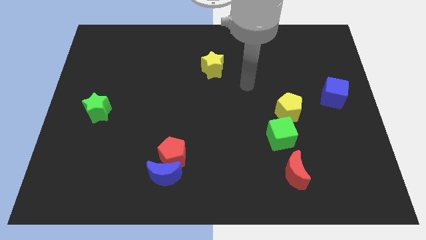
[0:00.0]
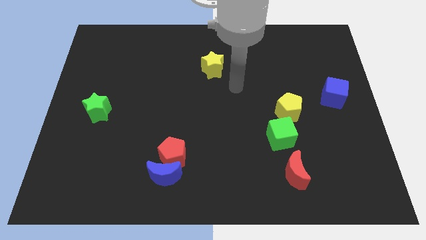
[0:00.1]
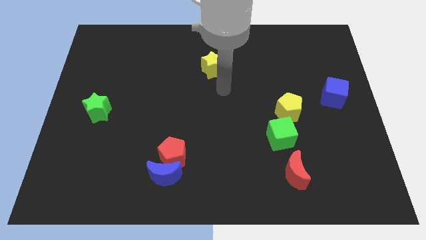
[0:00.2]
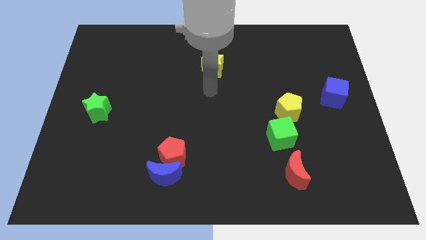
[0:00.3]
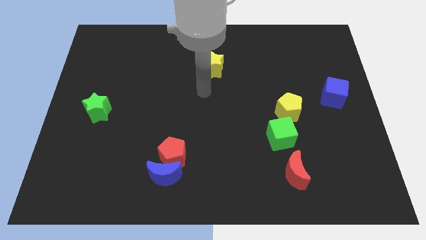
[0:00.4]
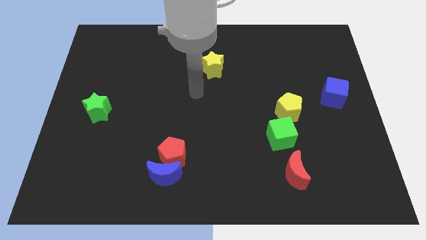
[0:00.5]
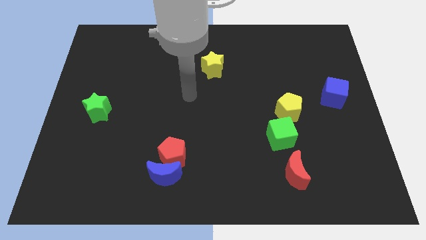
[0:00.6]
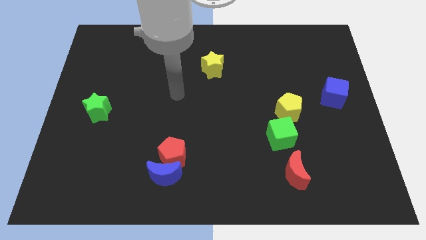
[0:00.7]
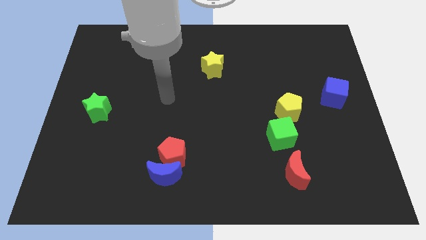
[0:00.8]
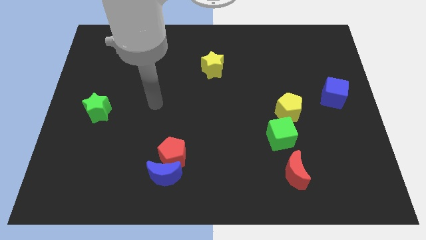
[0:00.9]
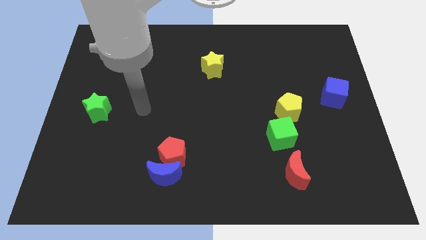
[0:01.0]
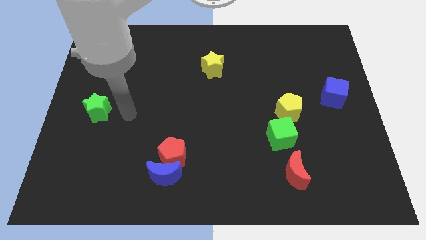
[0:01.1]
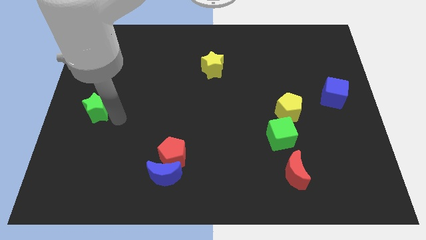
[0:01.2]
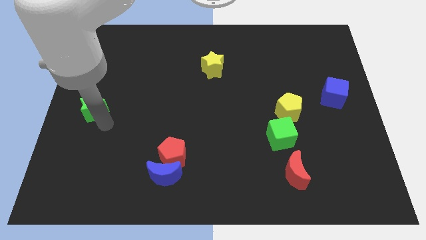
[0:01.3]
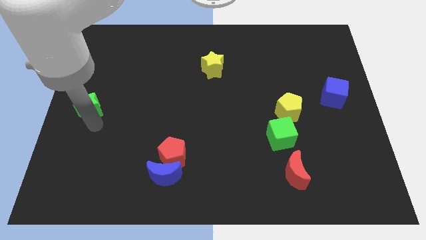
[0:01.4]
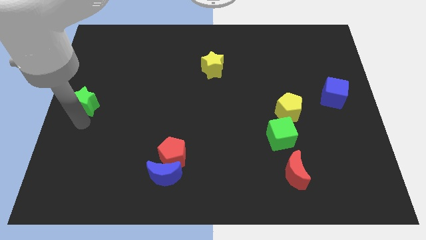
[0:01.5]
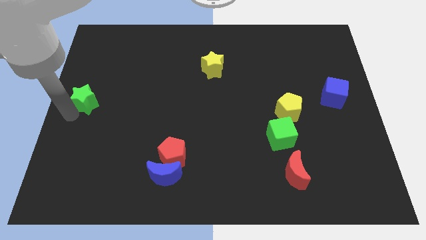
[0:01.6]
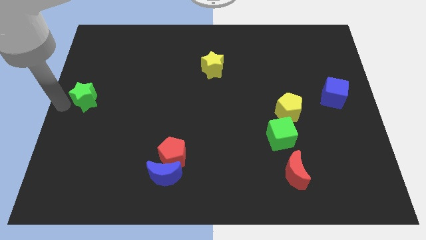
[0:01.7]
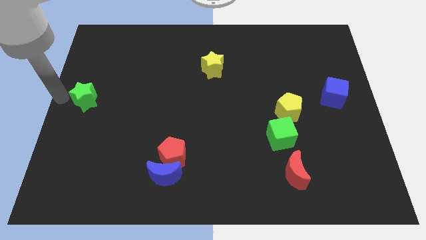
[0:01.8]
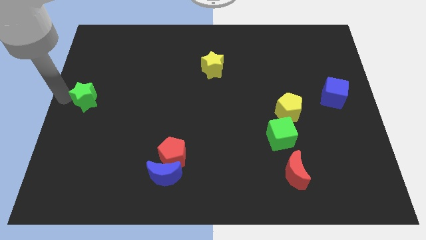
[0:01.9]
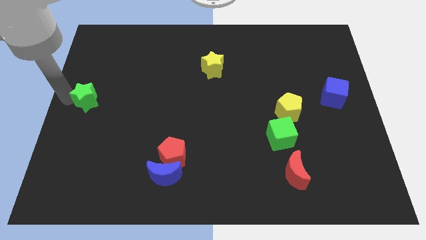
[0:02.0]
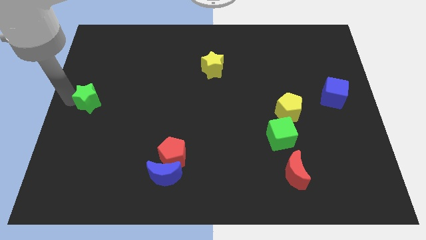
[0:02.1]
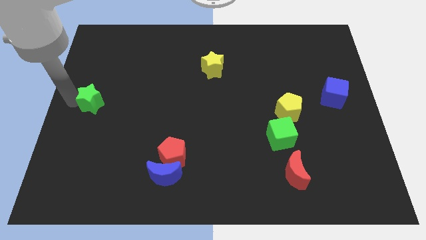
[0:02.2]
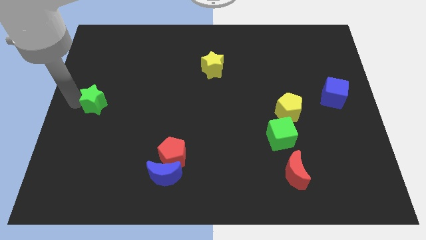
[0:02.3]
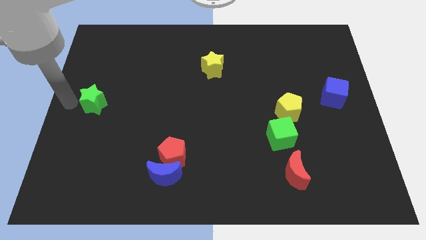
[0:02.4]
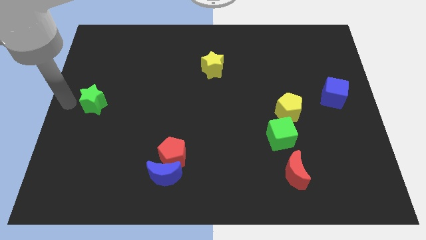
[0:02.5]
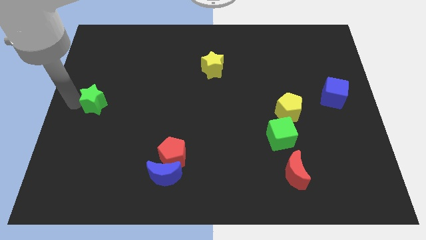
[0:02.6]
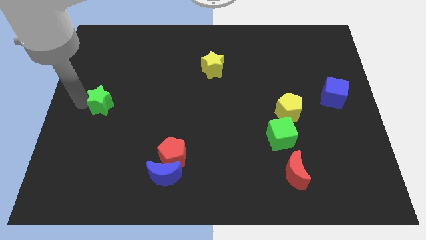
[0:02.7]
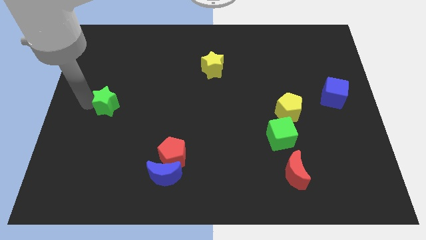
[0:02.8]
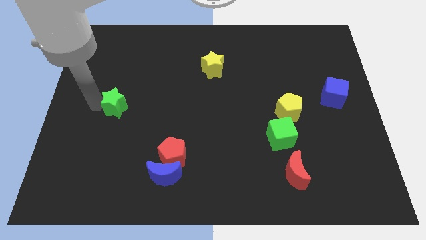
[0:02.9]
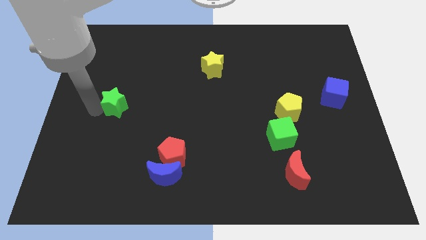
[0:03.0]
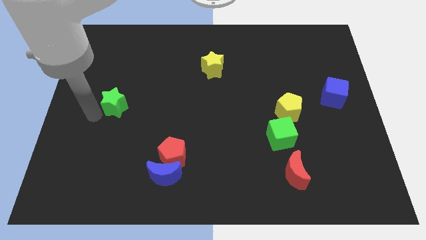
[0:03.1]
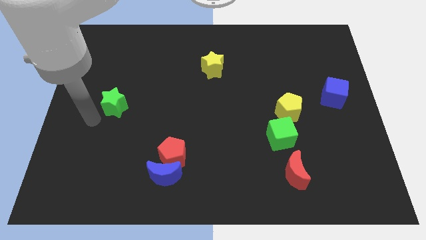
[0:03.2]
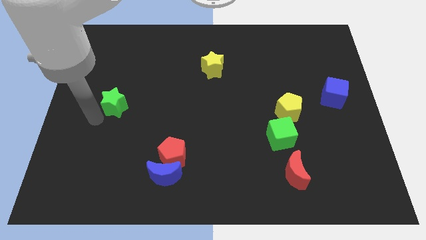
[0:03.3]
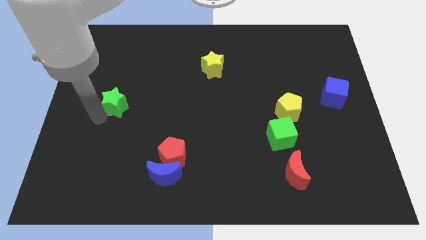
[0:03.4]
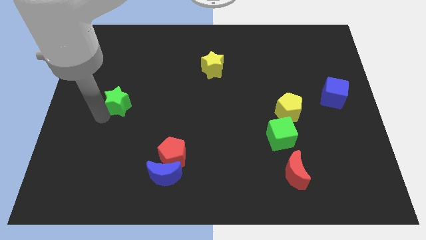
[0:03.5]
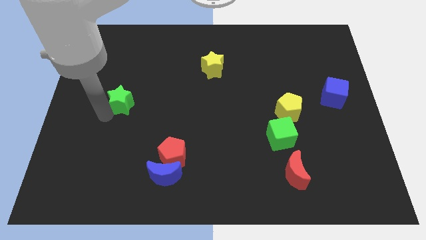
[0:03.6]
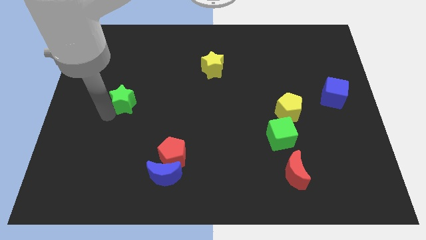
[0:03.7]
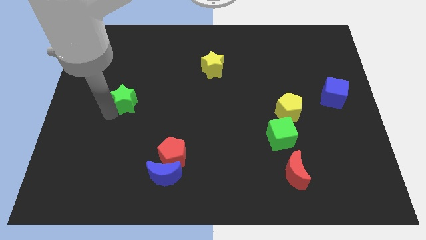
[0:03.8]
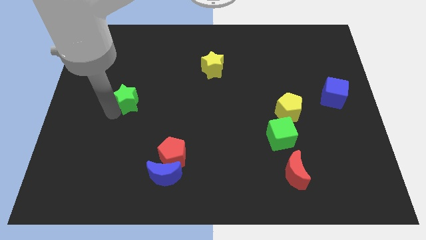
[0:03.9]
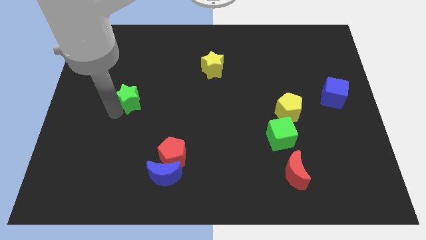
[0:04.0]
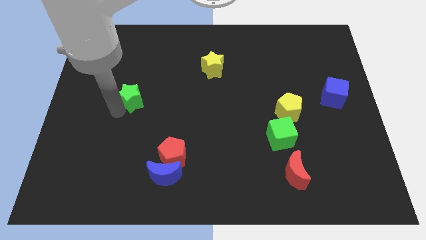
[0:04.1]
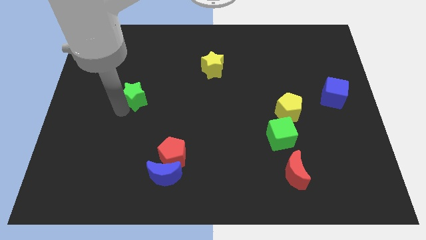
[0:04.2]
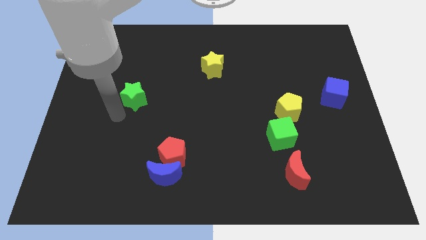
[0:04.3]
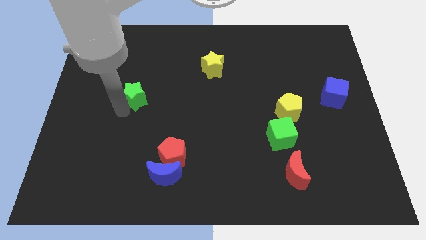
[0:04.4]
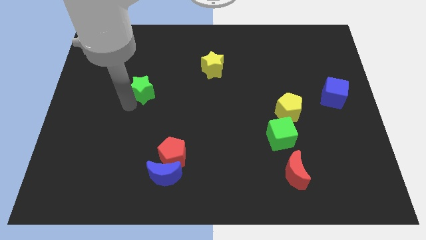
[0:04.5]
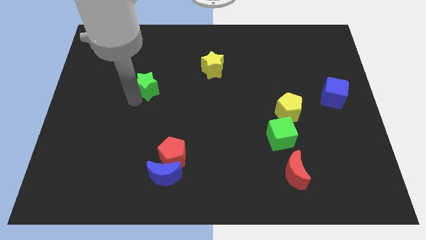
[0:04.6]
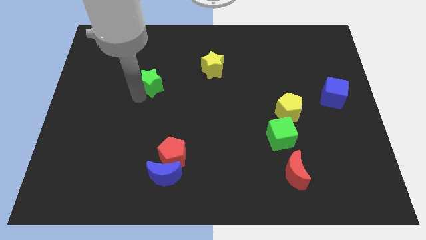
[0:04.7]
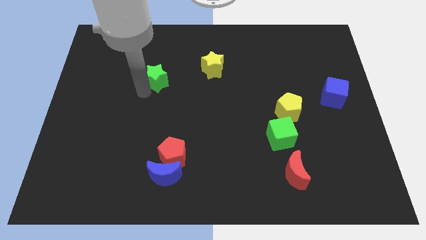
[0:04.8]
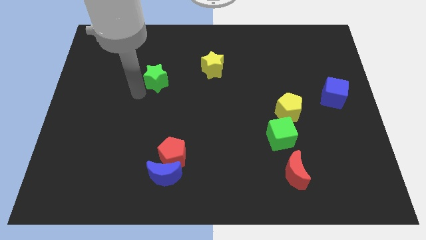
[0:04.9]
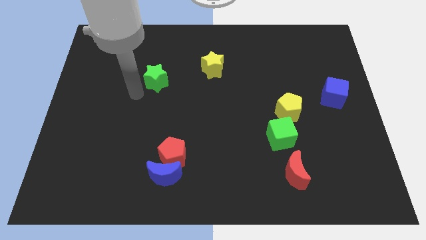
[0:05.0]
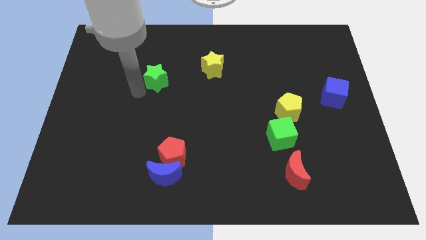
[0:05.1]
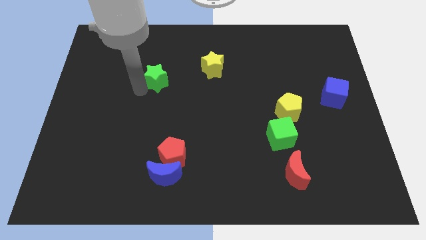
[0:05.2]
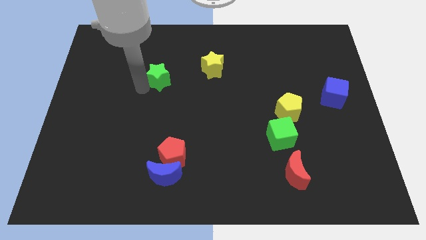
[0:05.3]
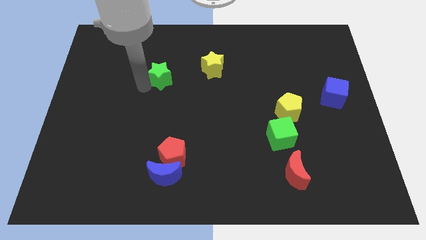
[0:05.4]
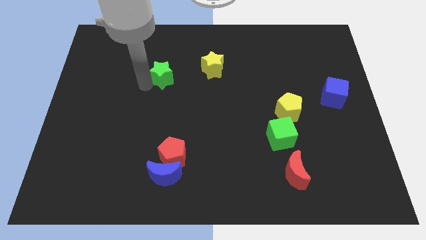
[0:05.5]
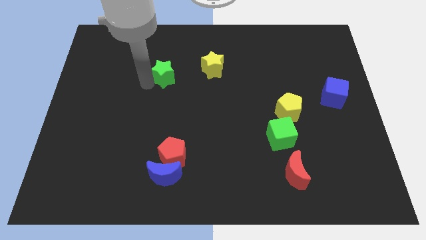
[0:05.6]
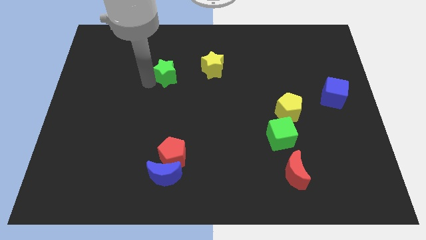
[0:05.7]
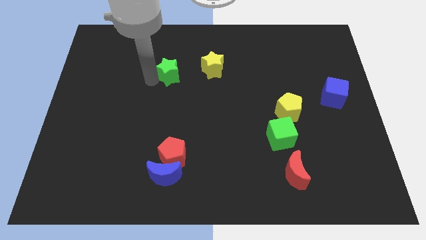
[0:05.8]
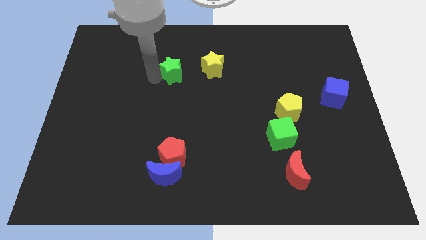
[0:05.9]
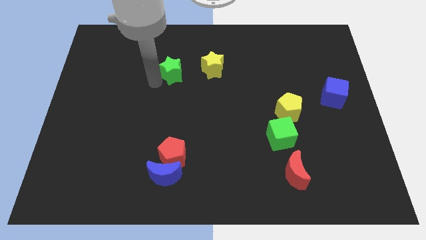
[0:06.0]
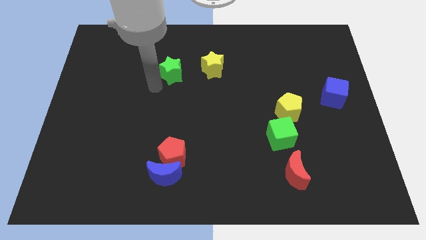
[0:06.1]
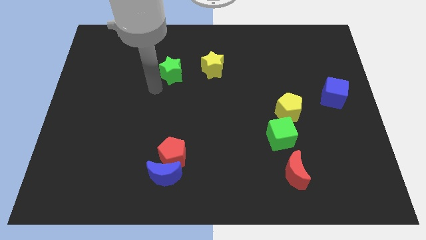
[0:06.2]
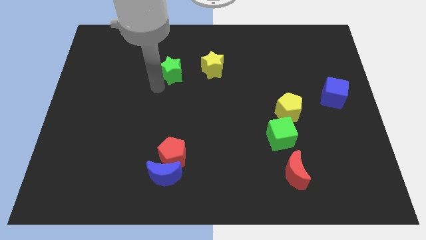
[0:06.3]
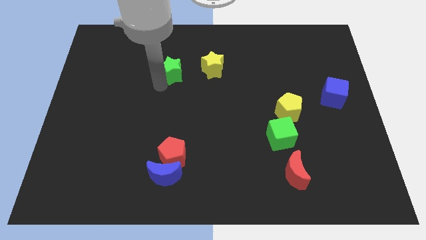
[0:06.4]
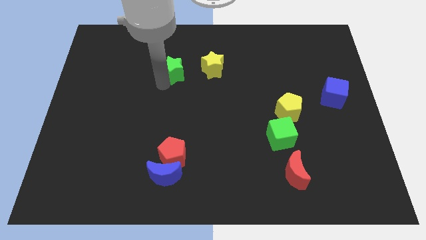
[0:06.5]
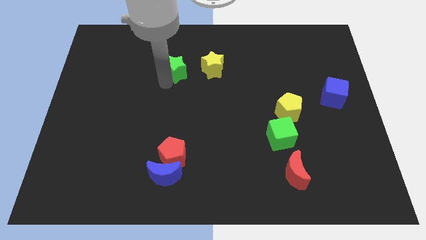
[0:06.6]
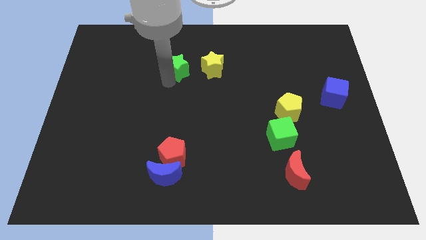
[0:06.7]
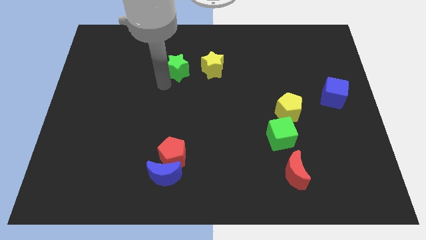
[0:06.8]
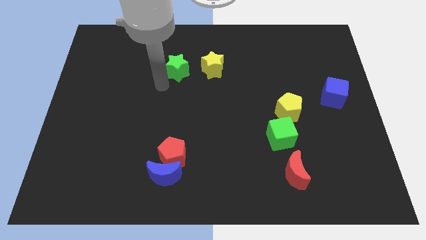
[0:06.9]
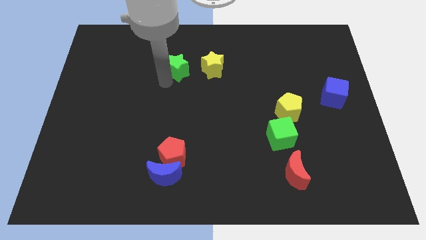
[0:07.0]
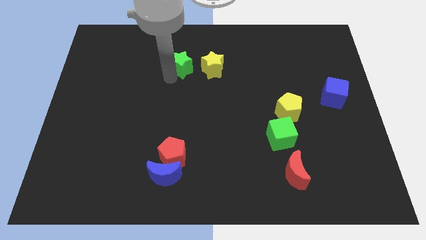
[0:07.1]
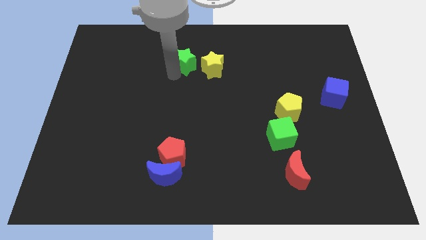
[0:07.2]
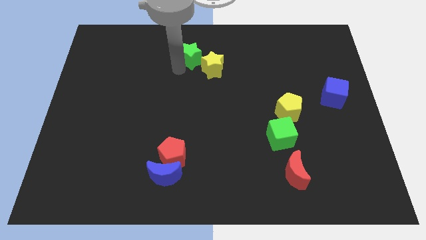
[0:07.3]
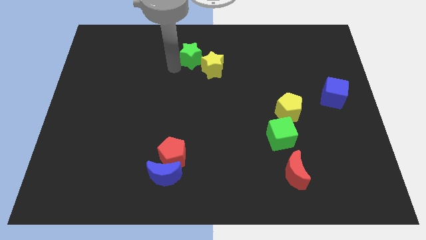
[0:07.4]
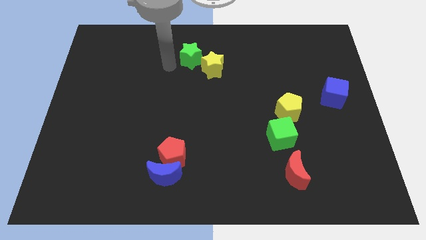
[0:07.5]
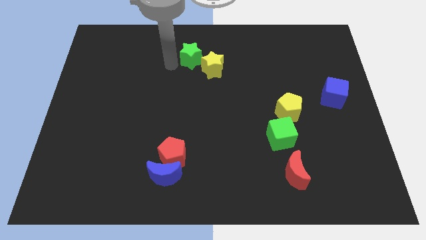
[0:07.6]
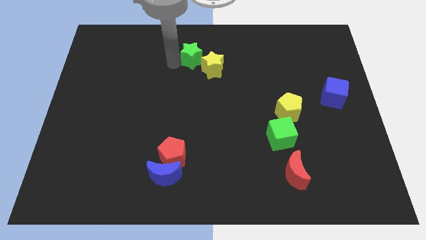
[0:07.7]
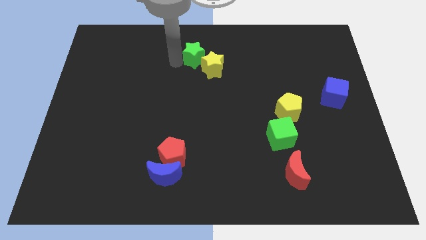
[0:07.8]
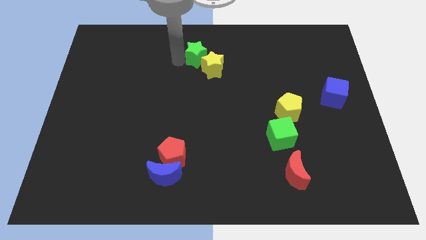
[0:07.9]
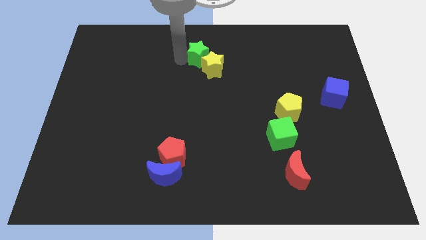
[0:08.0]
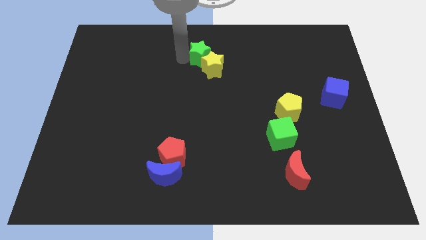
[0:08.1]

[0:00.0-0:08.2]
push the green star to the towards your base
